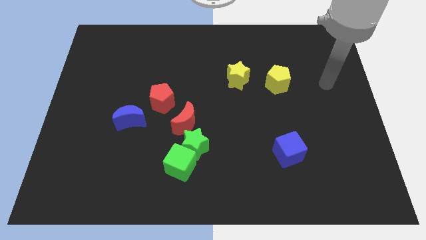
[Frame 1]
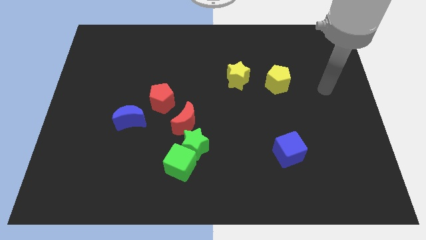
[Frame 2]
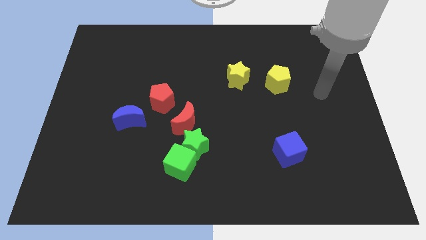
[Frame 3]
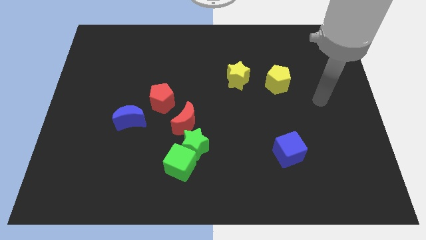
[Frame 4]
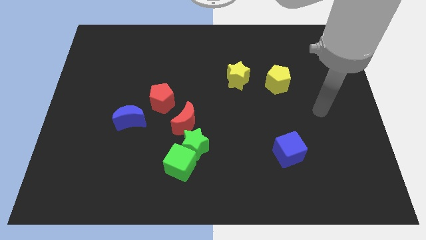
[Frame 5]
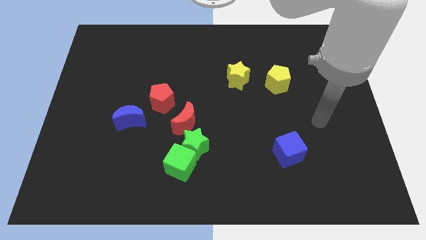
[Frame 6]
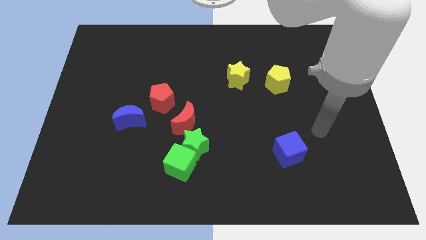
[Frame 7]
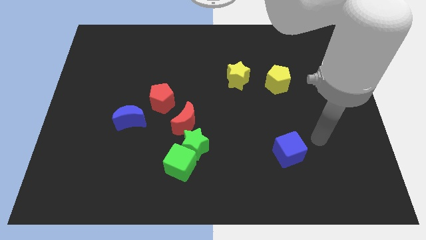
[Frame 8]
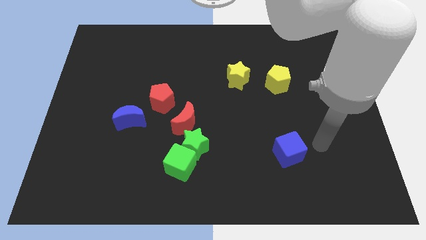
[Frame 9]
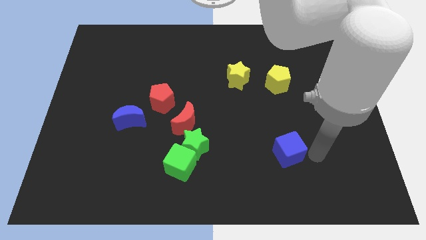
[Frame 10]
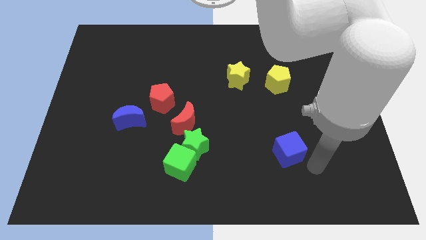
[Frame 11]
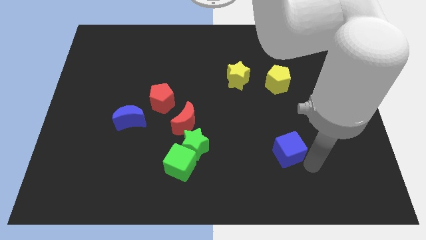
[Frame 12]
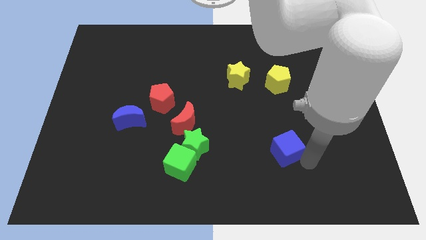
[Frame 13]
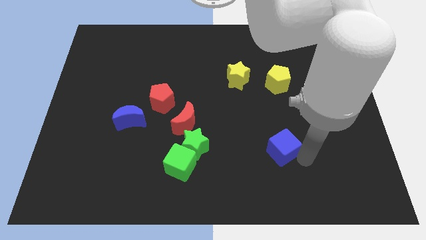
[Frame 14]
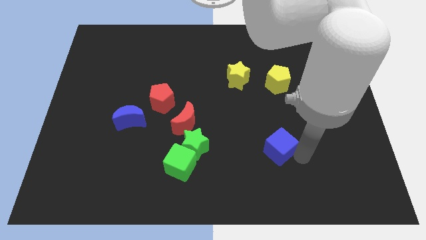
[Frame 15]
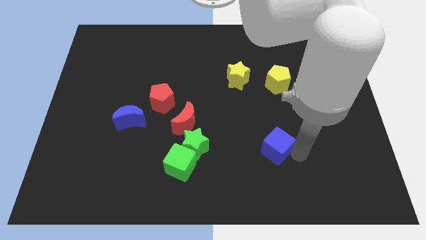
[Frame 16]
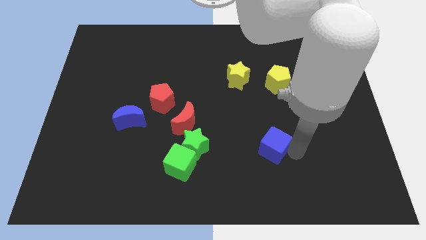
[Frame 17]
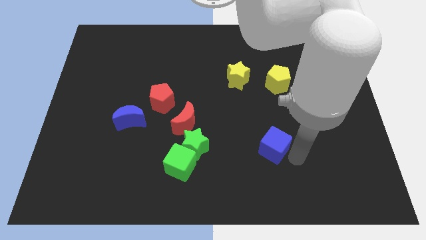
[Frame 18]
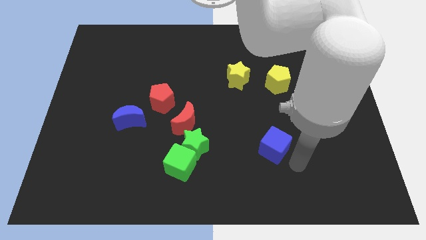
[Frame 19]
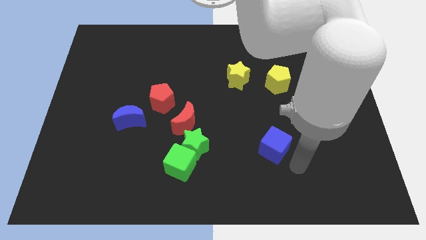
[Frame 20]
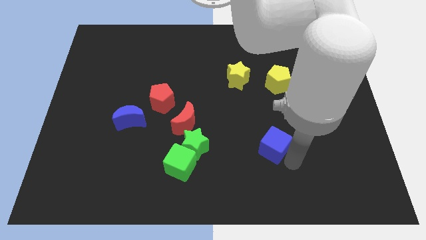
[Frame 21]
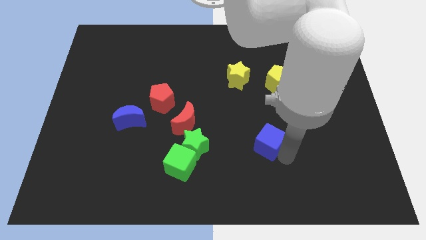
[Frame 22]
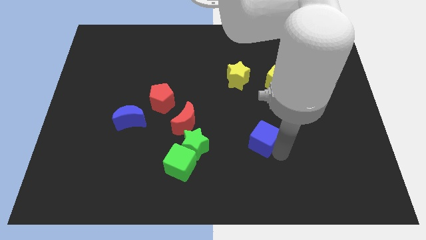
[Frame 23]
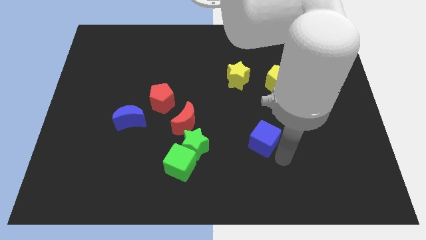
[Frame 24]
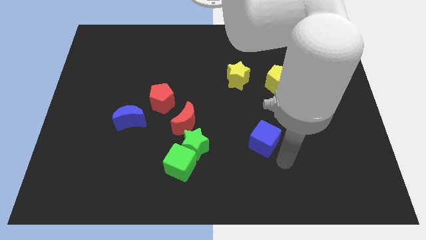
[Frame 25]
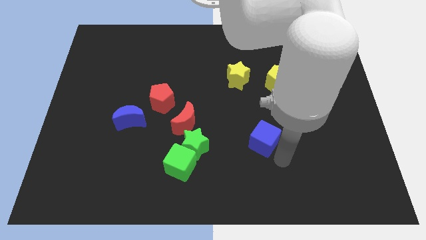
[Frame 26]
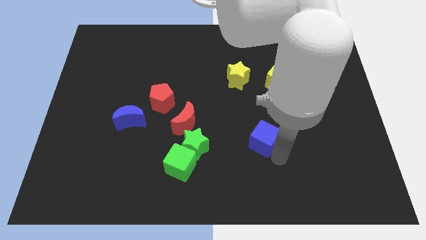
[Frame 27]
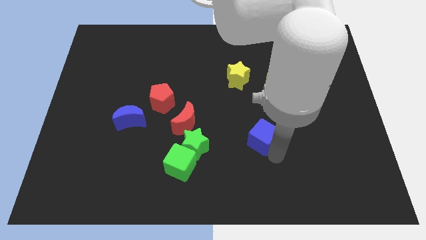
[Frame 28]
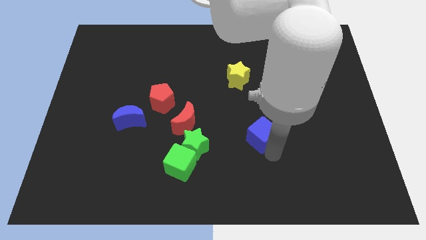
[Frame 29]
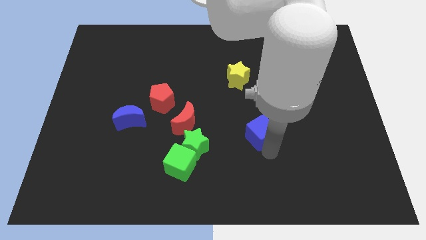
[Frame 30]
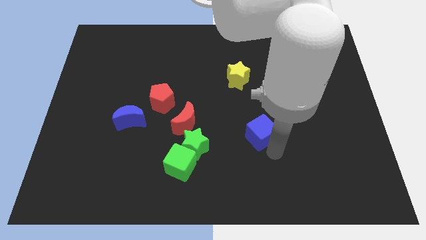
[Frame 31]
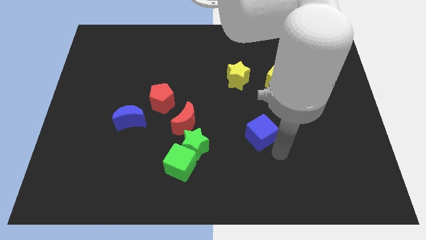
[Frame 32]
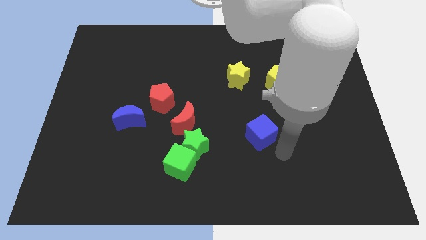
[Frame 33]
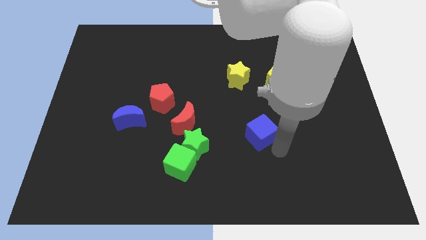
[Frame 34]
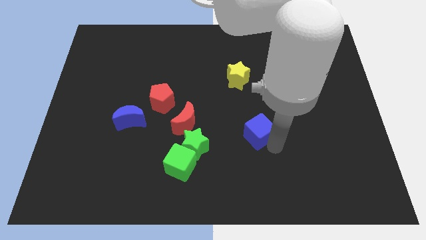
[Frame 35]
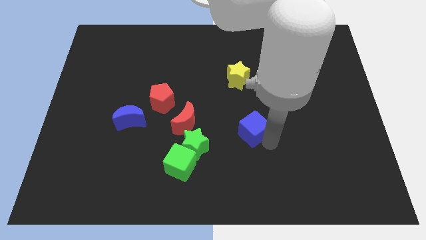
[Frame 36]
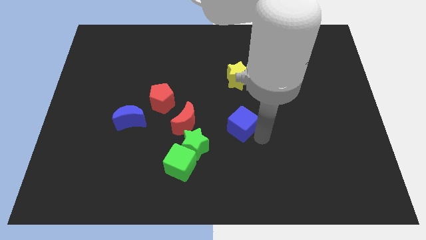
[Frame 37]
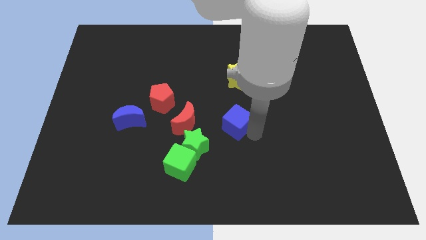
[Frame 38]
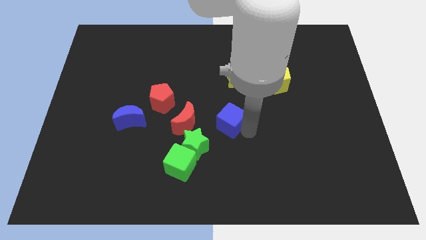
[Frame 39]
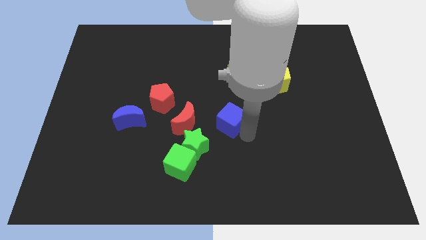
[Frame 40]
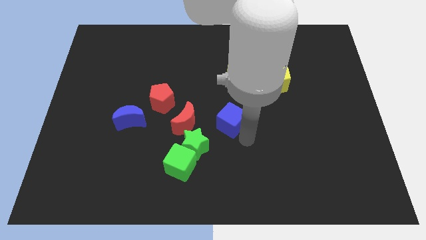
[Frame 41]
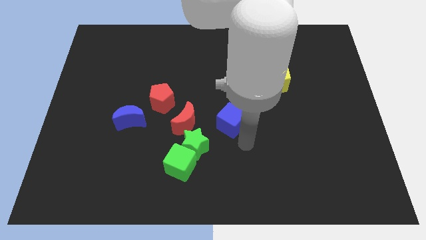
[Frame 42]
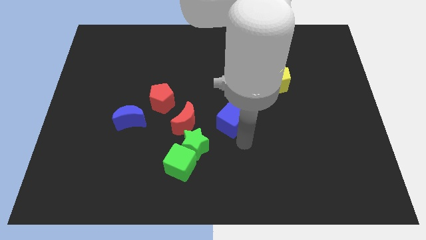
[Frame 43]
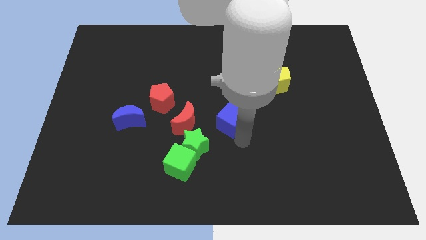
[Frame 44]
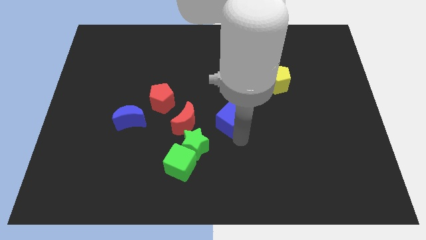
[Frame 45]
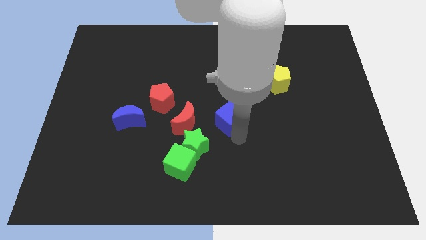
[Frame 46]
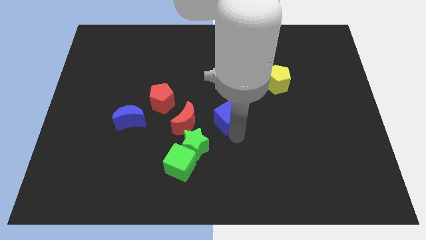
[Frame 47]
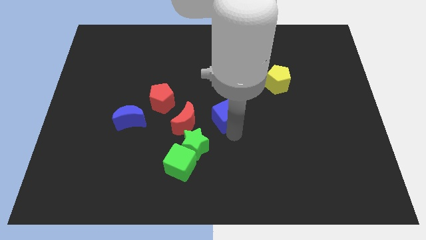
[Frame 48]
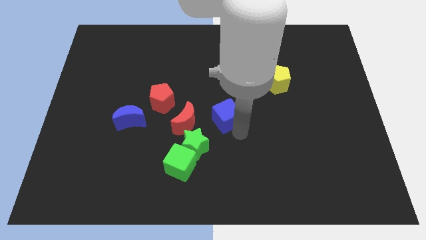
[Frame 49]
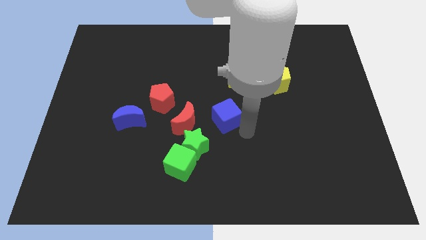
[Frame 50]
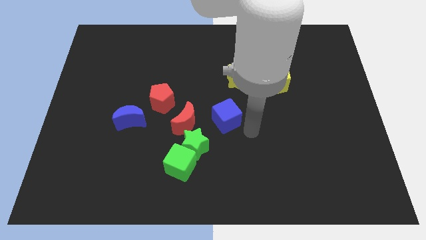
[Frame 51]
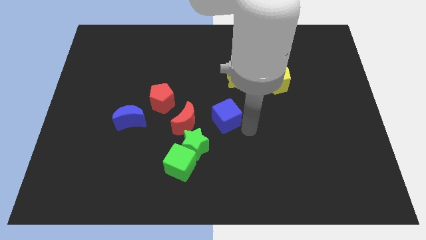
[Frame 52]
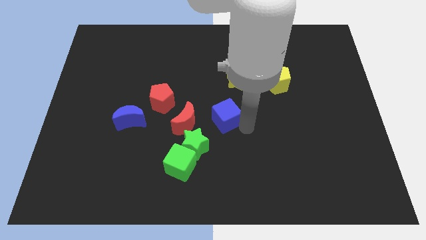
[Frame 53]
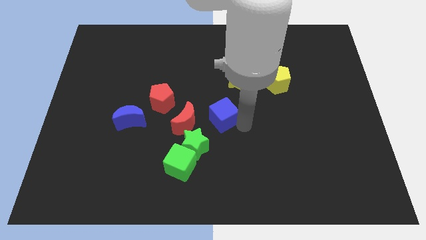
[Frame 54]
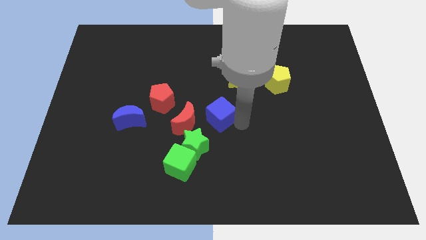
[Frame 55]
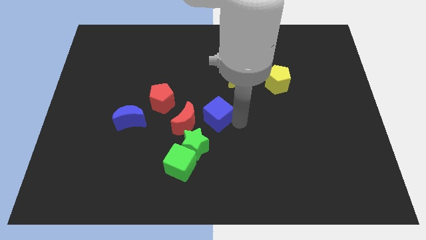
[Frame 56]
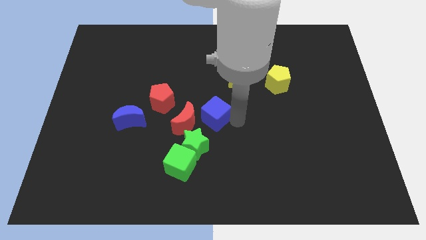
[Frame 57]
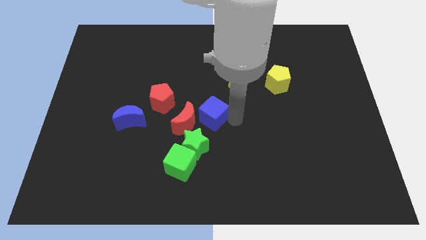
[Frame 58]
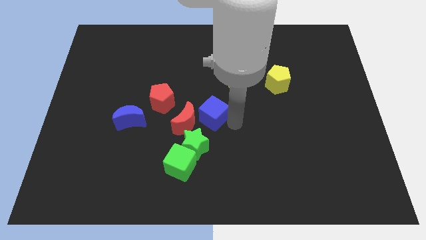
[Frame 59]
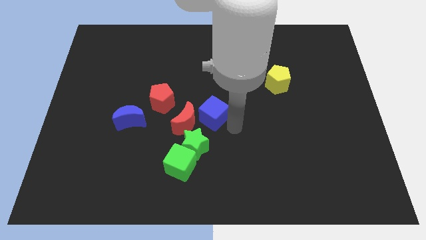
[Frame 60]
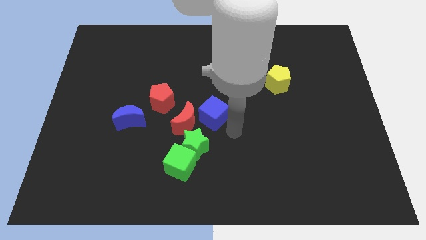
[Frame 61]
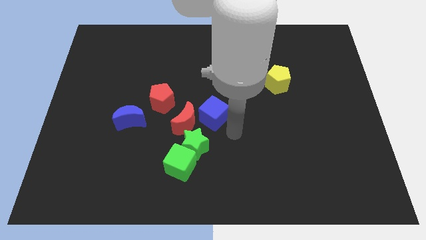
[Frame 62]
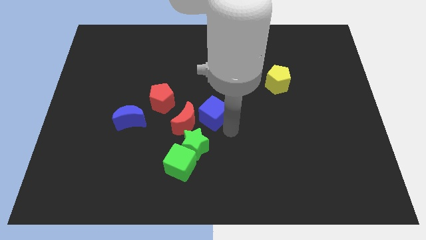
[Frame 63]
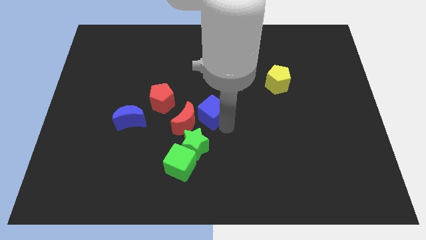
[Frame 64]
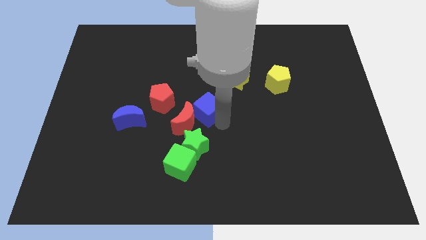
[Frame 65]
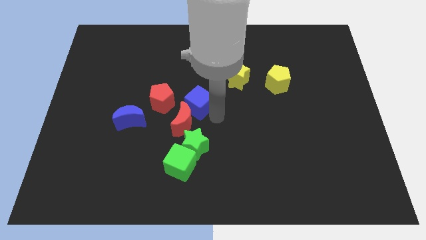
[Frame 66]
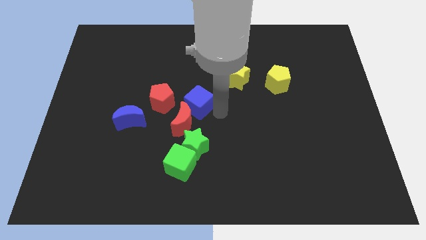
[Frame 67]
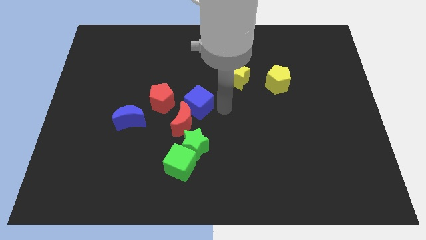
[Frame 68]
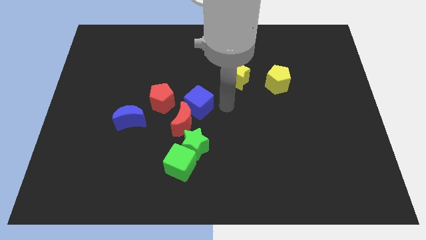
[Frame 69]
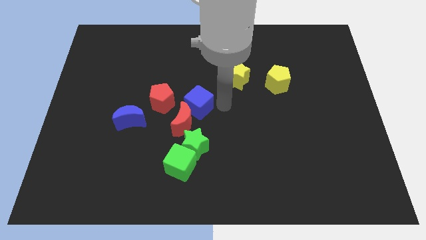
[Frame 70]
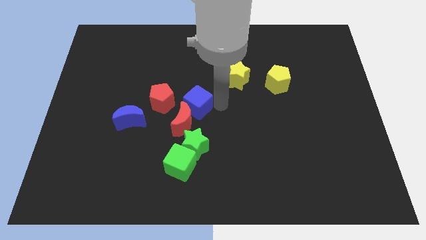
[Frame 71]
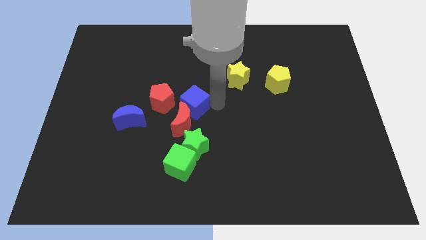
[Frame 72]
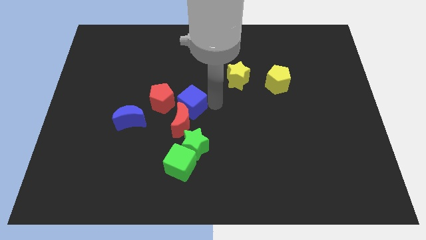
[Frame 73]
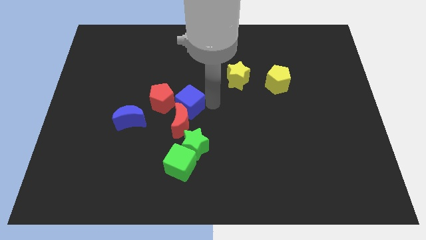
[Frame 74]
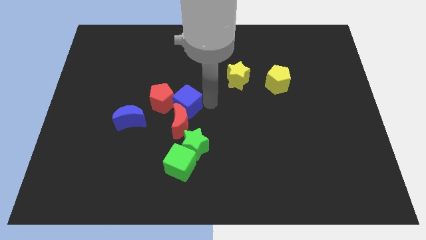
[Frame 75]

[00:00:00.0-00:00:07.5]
put the blue cube towards the red pentagon

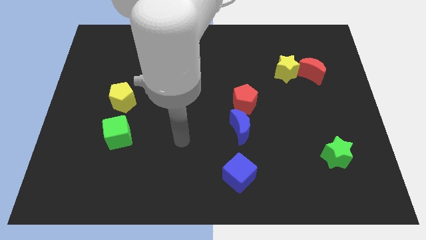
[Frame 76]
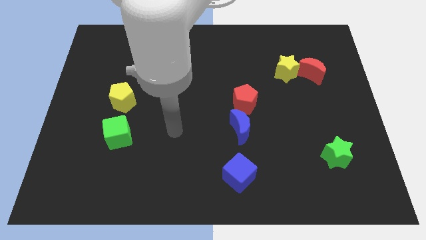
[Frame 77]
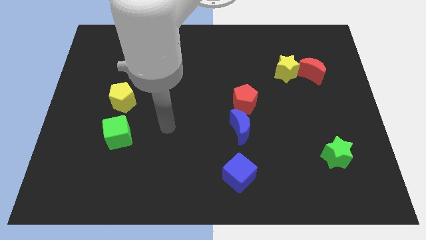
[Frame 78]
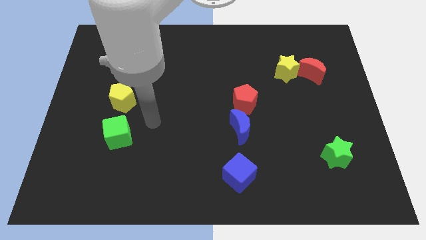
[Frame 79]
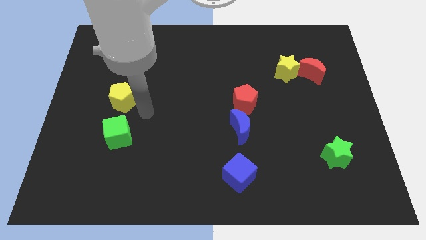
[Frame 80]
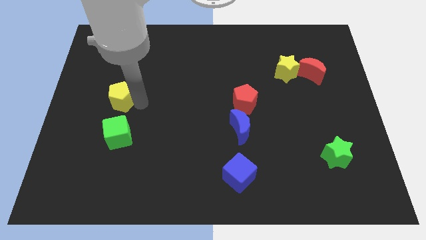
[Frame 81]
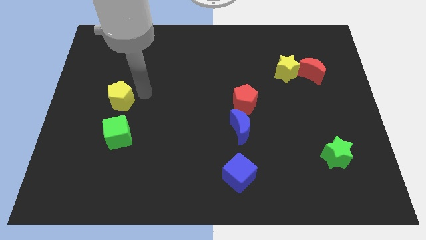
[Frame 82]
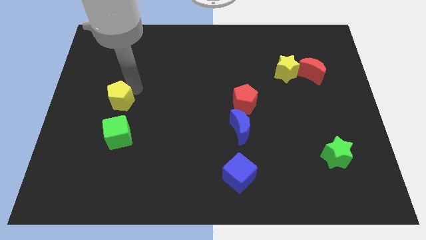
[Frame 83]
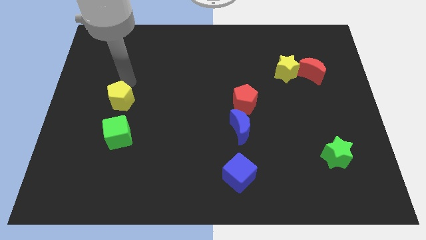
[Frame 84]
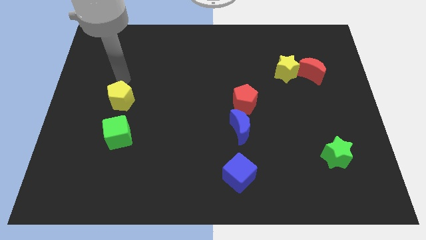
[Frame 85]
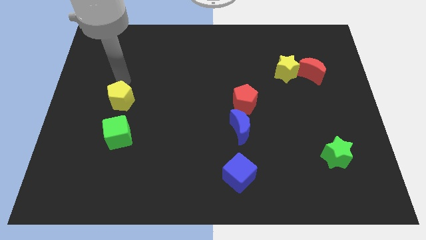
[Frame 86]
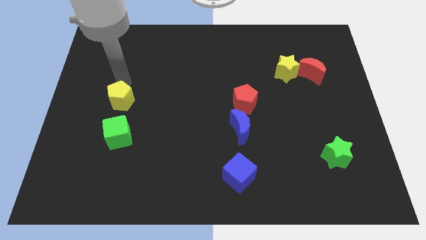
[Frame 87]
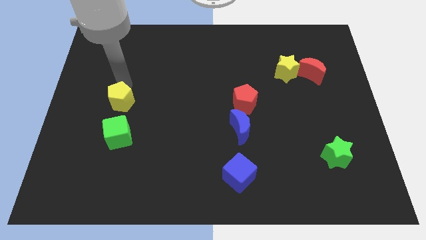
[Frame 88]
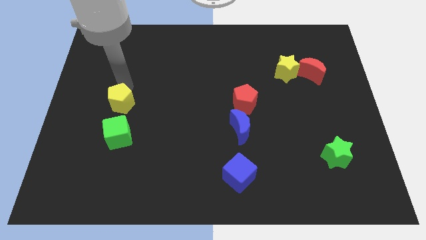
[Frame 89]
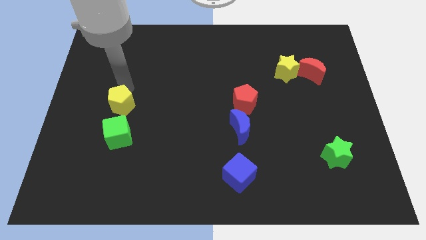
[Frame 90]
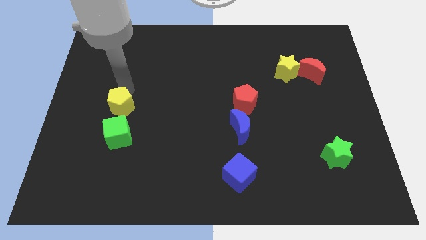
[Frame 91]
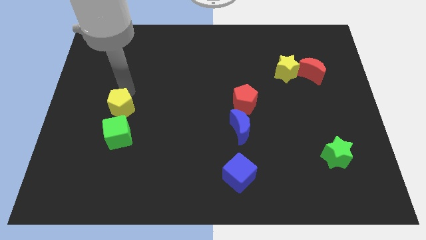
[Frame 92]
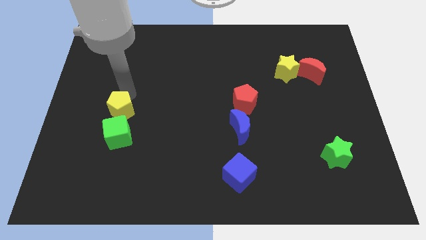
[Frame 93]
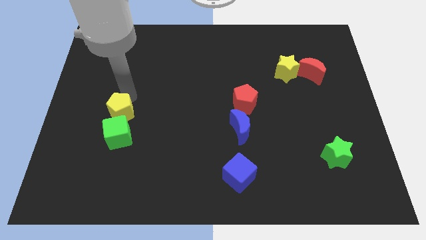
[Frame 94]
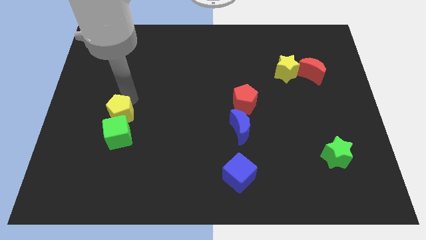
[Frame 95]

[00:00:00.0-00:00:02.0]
move the yellow pentagon next to the green cube
